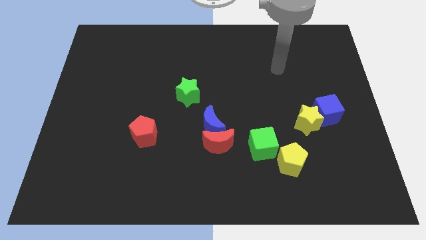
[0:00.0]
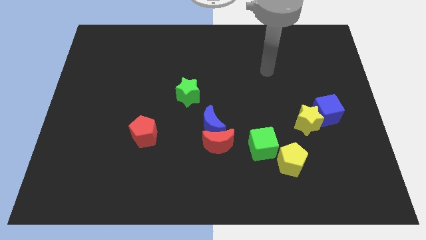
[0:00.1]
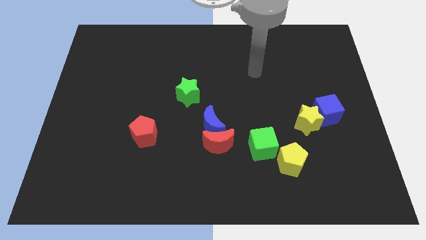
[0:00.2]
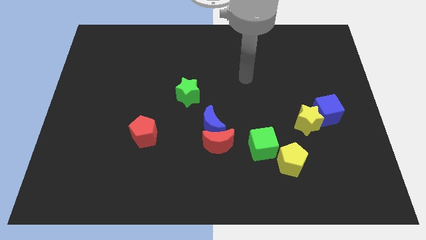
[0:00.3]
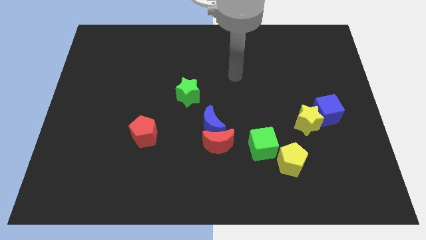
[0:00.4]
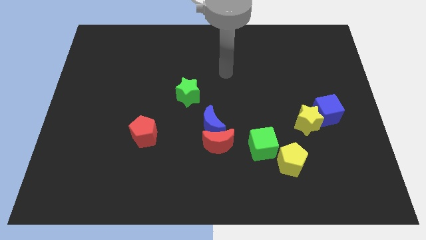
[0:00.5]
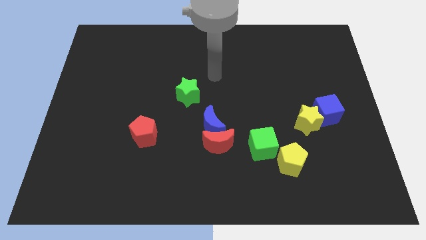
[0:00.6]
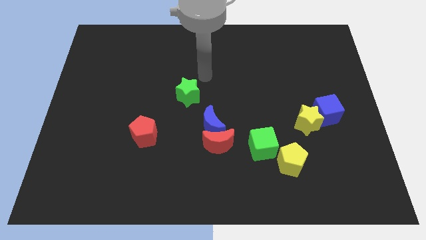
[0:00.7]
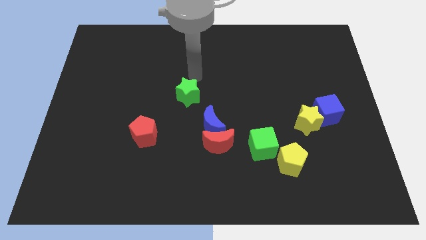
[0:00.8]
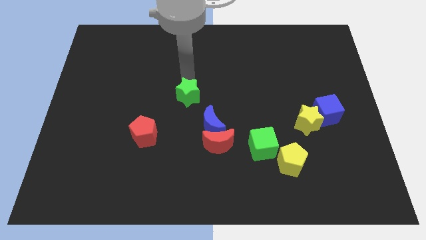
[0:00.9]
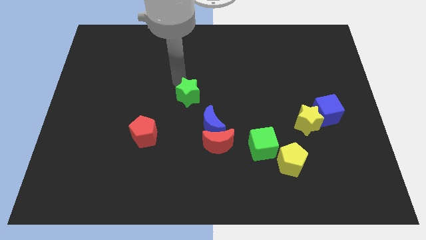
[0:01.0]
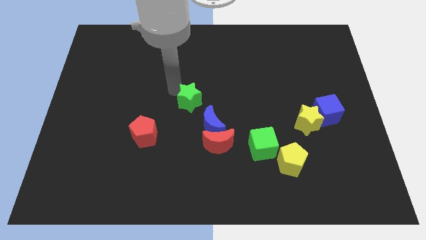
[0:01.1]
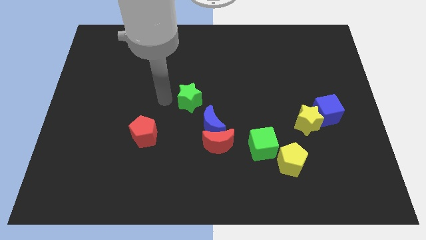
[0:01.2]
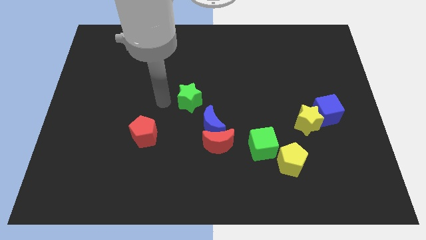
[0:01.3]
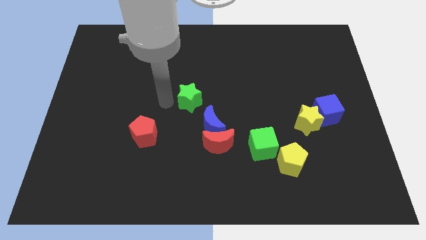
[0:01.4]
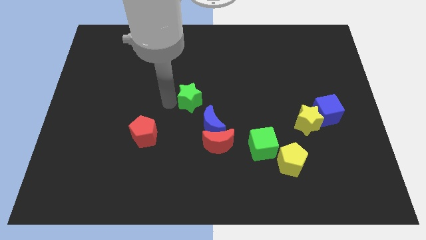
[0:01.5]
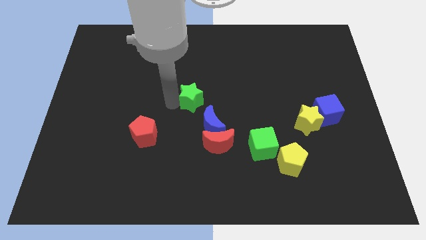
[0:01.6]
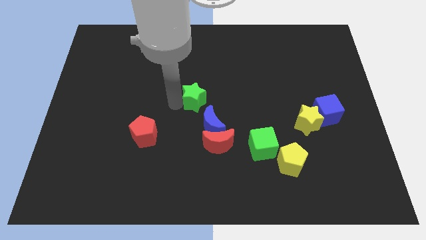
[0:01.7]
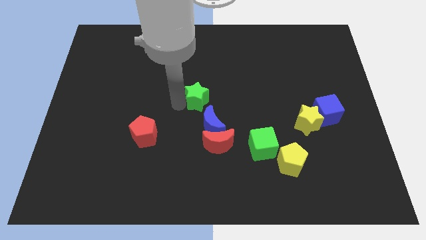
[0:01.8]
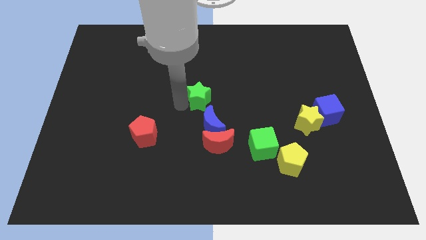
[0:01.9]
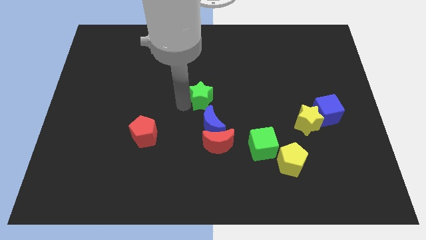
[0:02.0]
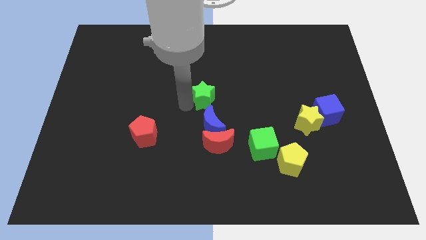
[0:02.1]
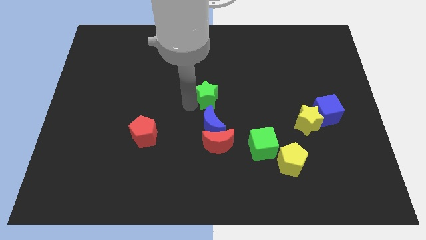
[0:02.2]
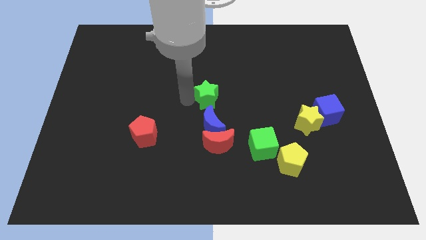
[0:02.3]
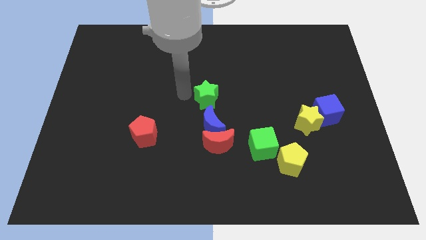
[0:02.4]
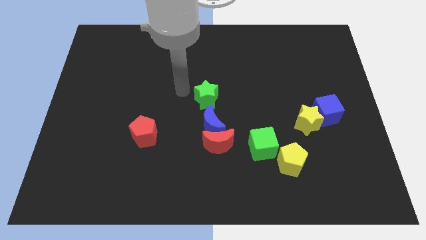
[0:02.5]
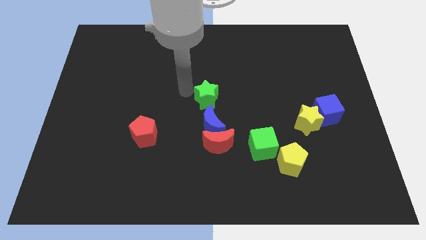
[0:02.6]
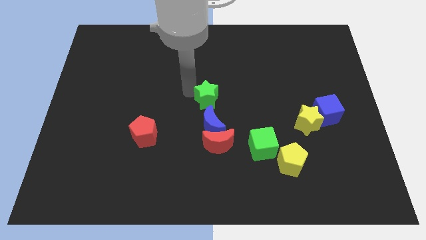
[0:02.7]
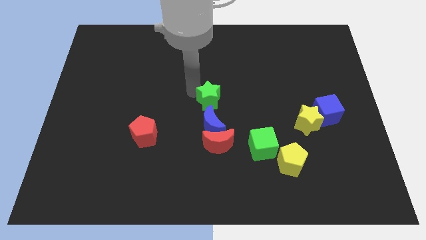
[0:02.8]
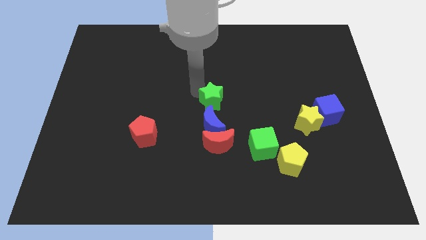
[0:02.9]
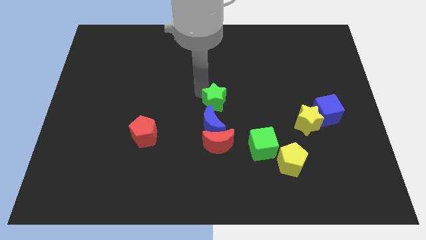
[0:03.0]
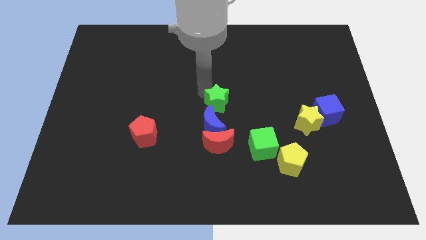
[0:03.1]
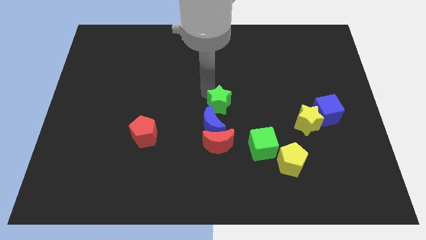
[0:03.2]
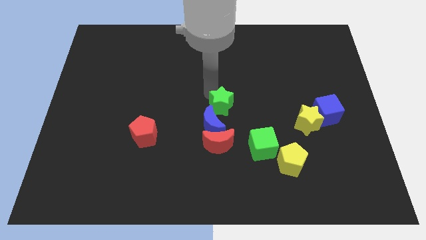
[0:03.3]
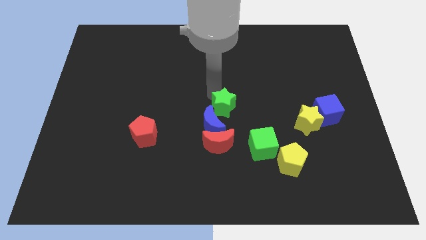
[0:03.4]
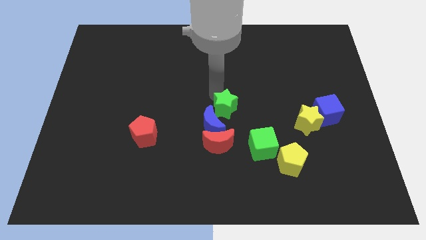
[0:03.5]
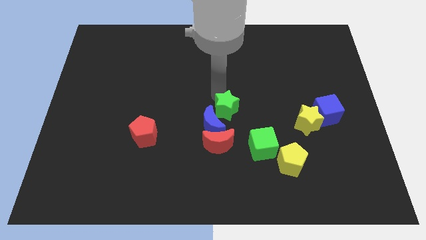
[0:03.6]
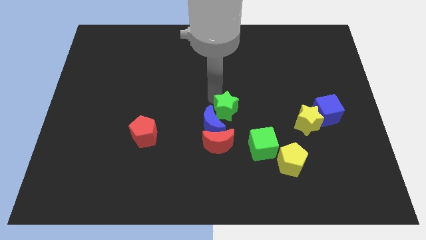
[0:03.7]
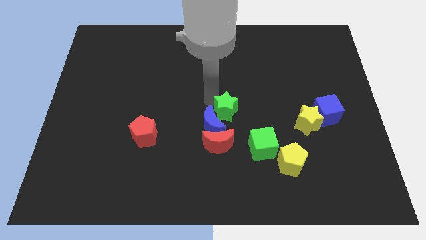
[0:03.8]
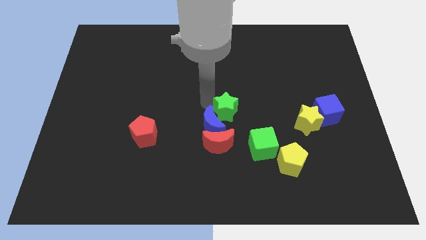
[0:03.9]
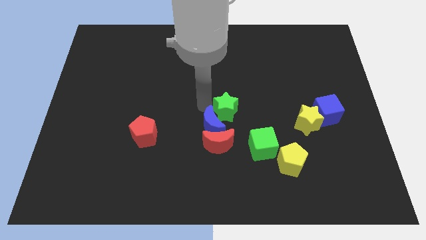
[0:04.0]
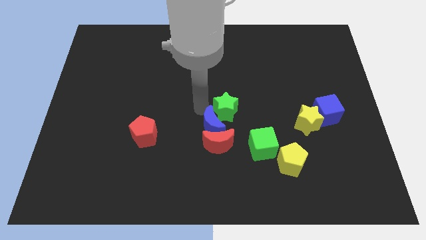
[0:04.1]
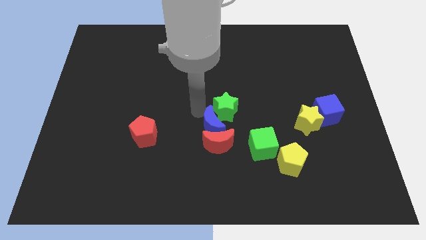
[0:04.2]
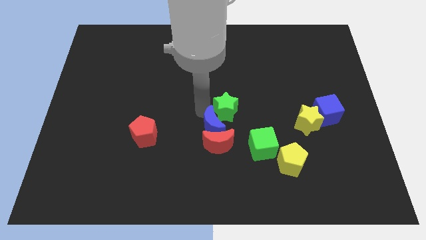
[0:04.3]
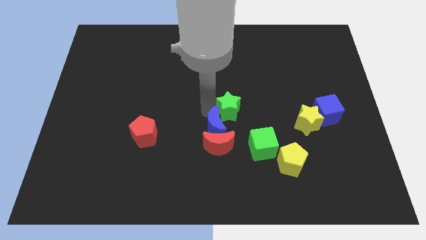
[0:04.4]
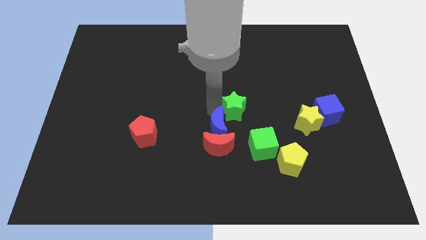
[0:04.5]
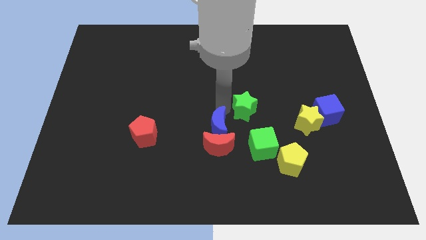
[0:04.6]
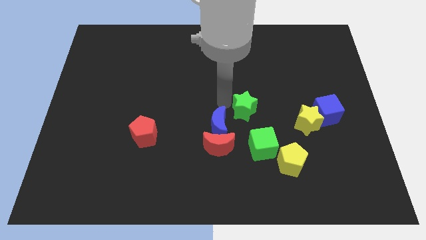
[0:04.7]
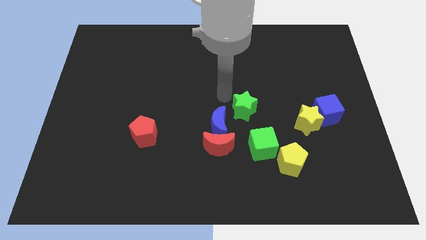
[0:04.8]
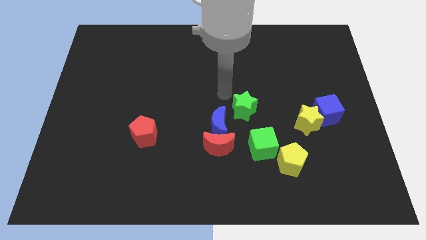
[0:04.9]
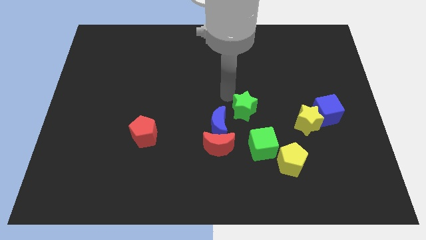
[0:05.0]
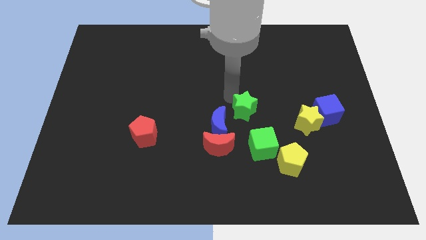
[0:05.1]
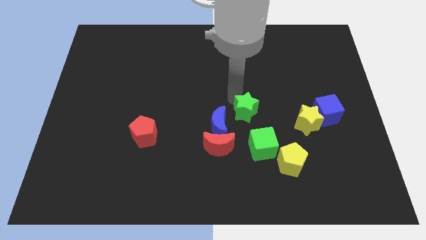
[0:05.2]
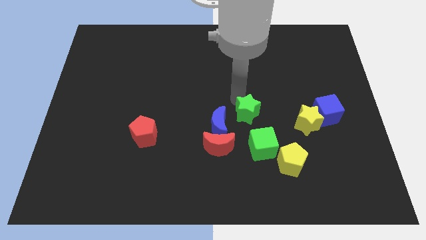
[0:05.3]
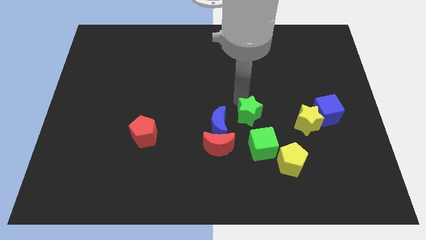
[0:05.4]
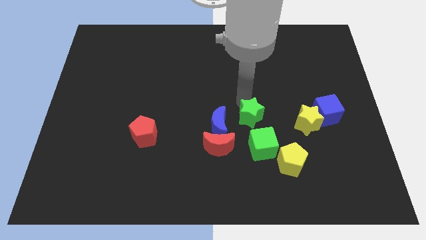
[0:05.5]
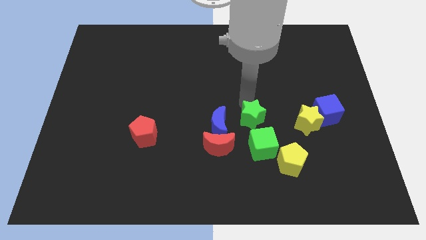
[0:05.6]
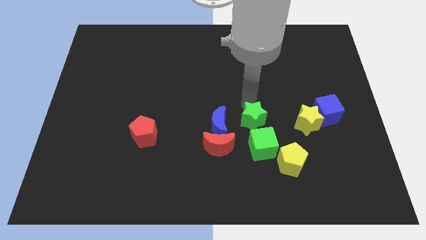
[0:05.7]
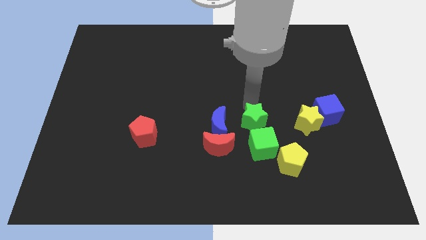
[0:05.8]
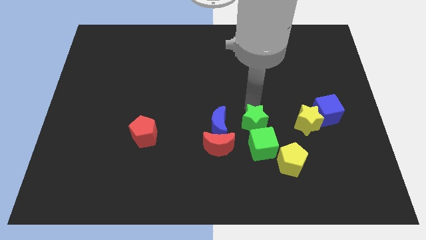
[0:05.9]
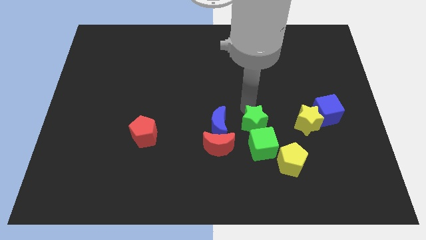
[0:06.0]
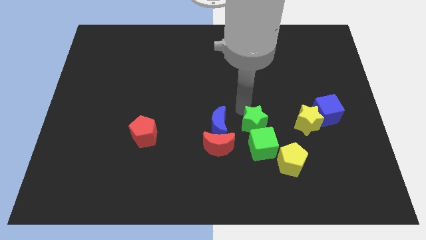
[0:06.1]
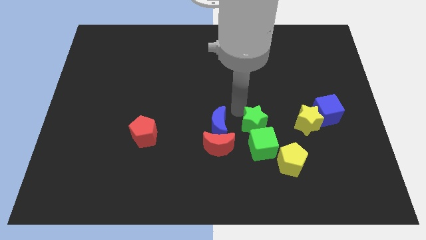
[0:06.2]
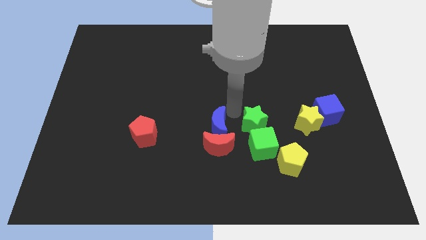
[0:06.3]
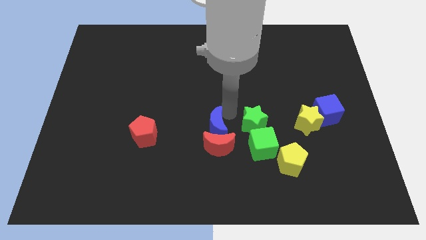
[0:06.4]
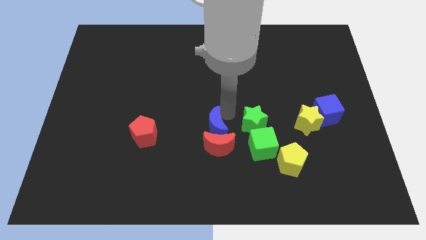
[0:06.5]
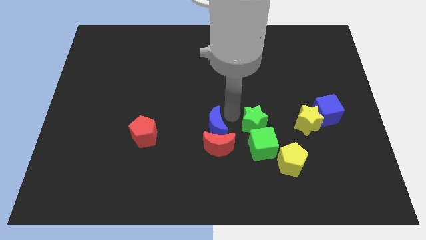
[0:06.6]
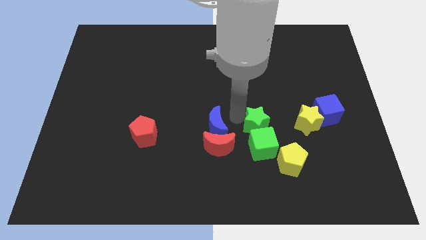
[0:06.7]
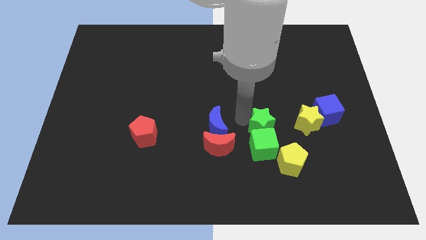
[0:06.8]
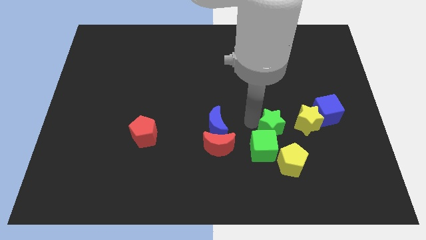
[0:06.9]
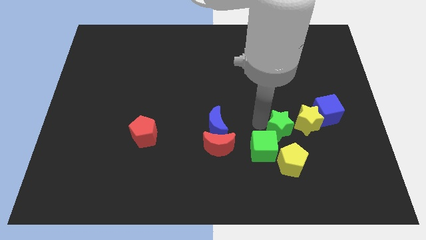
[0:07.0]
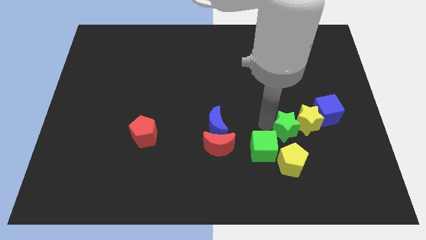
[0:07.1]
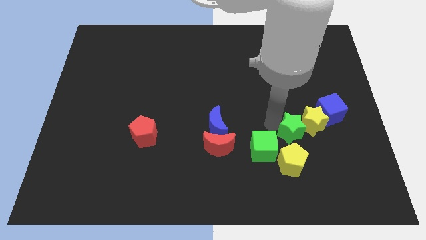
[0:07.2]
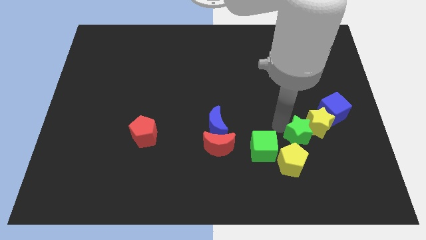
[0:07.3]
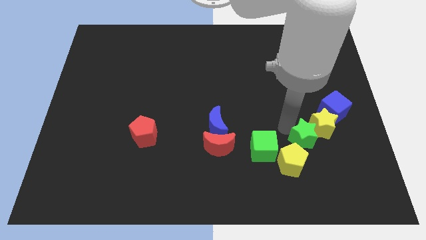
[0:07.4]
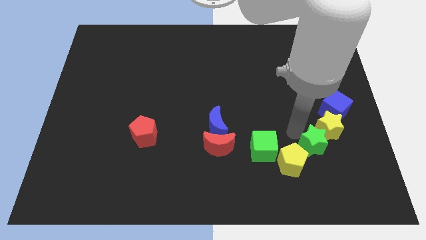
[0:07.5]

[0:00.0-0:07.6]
move the green star to the right side of the yellow pentagon
